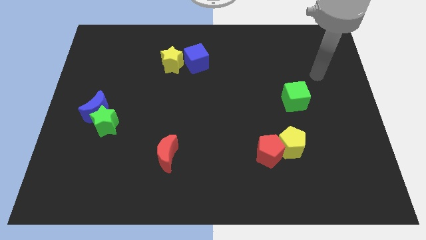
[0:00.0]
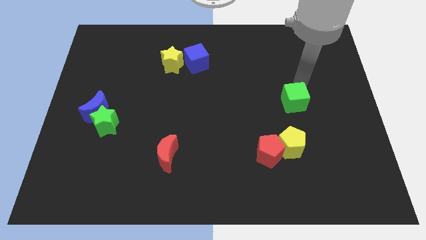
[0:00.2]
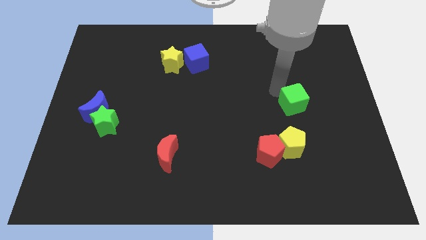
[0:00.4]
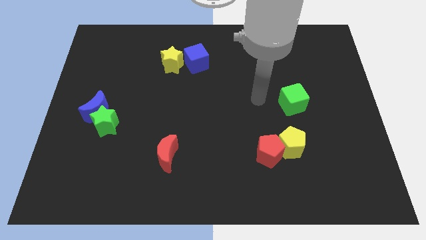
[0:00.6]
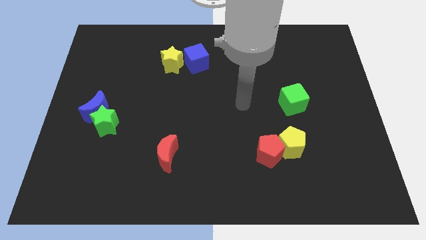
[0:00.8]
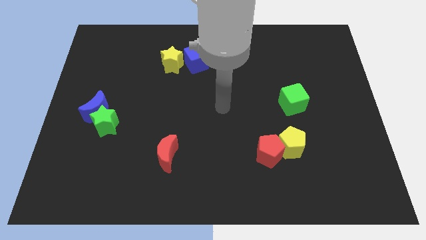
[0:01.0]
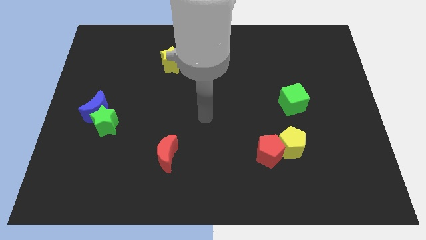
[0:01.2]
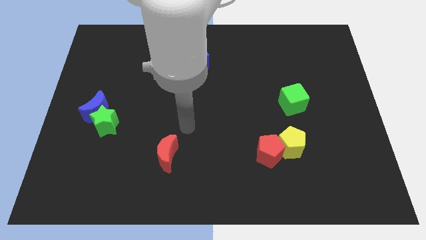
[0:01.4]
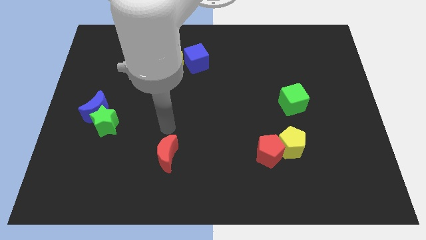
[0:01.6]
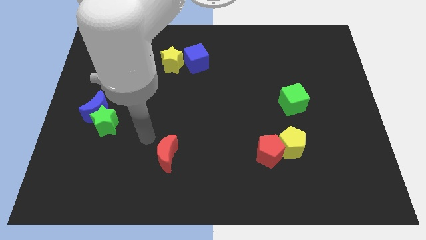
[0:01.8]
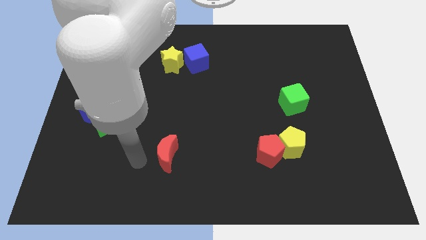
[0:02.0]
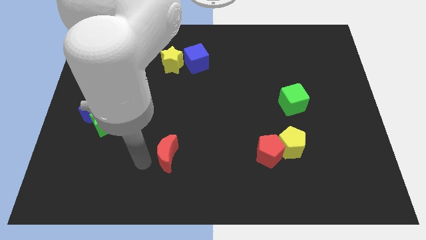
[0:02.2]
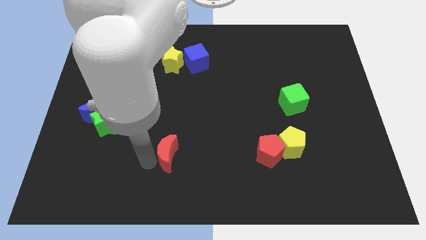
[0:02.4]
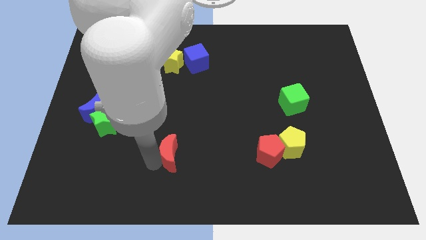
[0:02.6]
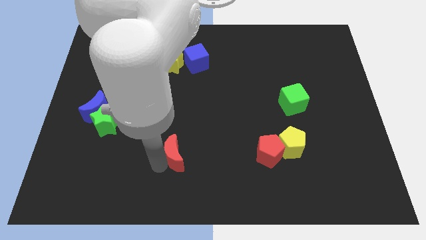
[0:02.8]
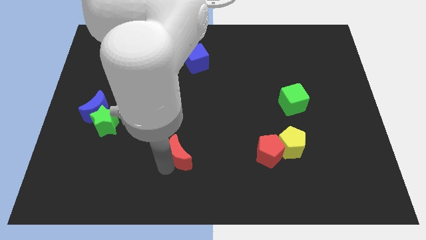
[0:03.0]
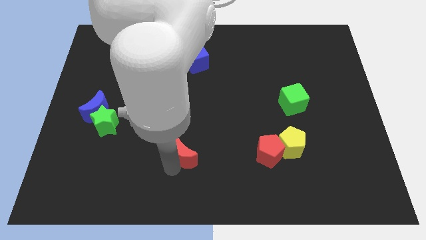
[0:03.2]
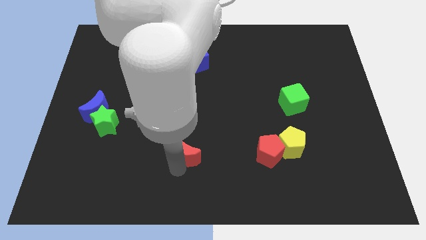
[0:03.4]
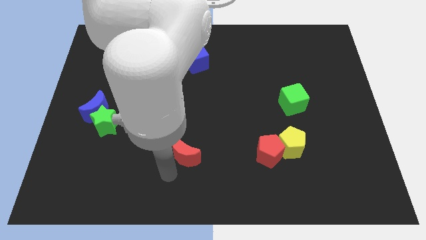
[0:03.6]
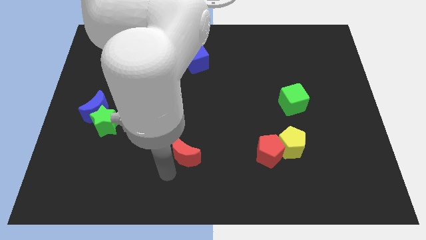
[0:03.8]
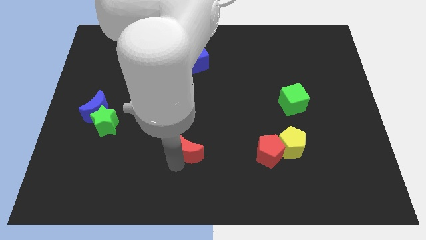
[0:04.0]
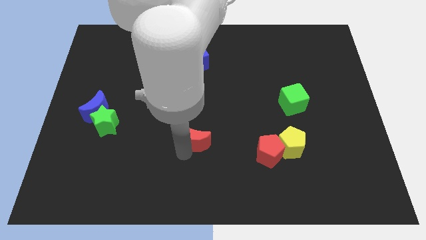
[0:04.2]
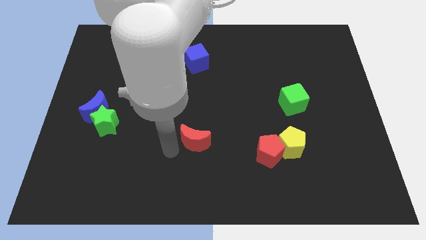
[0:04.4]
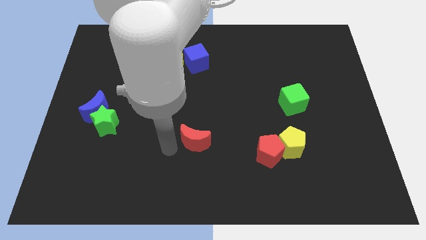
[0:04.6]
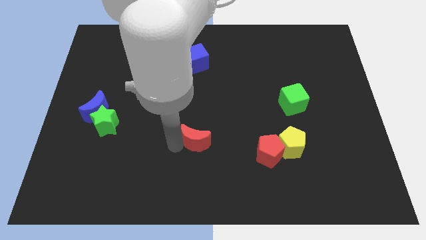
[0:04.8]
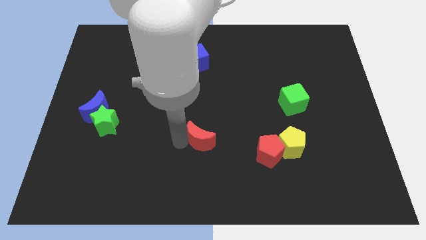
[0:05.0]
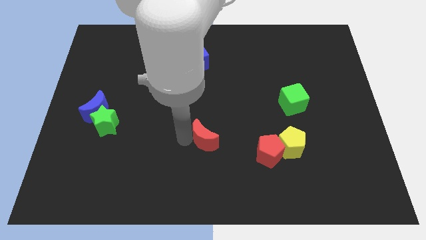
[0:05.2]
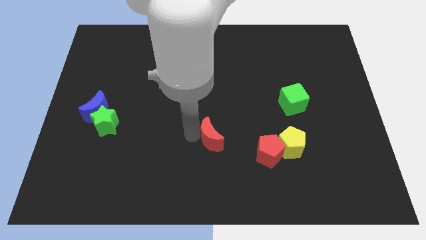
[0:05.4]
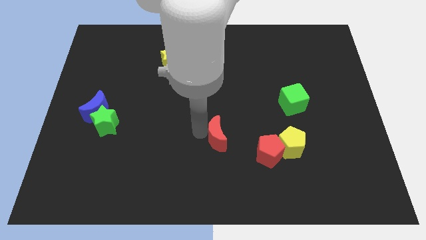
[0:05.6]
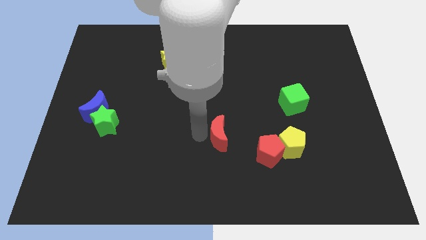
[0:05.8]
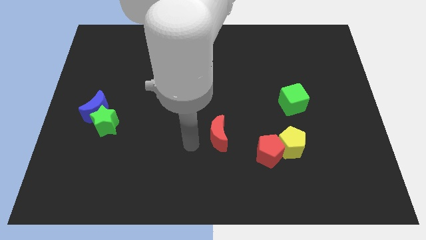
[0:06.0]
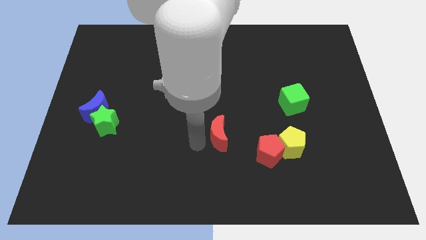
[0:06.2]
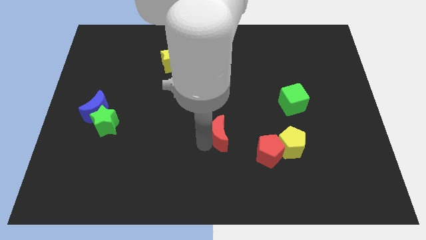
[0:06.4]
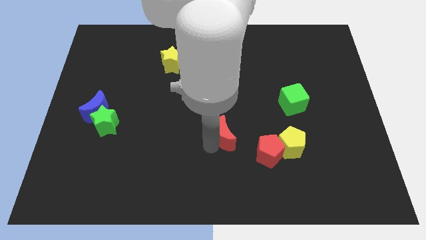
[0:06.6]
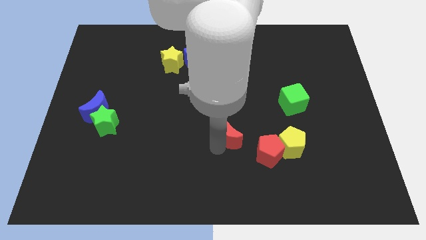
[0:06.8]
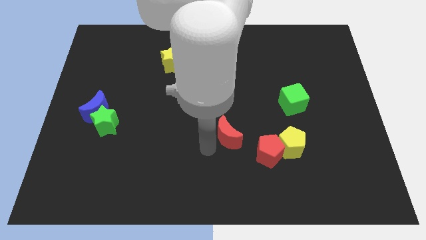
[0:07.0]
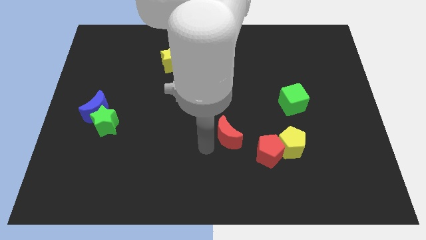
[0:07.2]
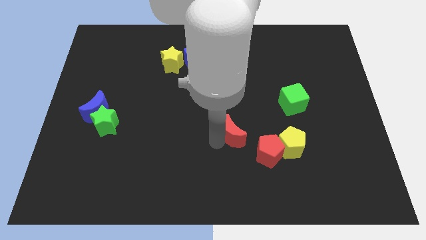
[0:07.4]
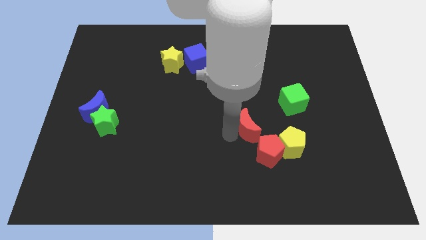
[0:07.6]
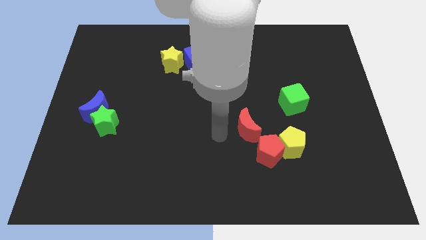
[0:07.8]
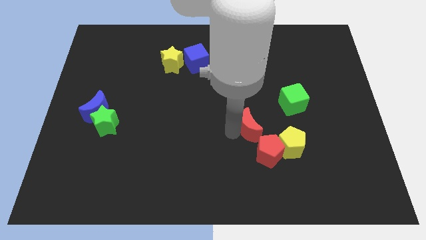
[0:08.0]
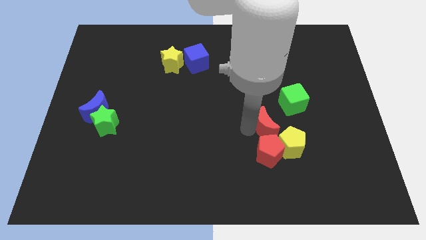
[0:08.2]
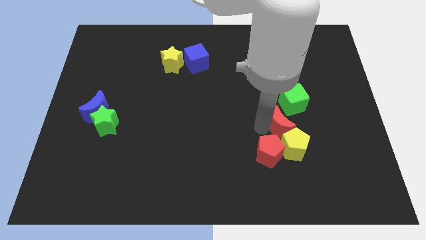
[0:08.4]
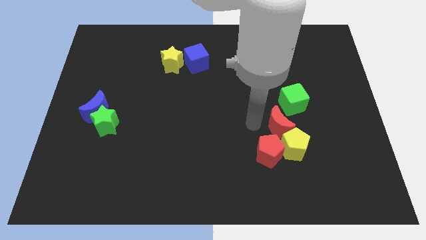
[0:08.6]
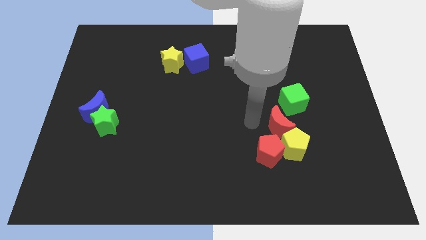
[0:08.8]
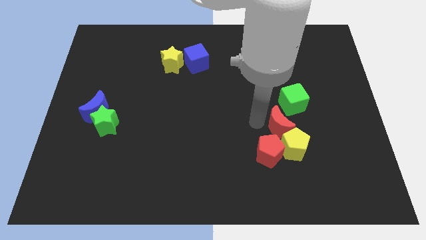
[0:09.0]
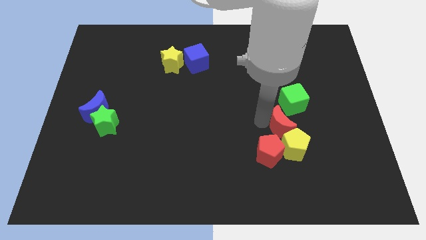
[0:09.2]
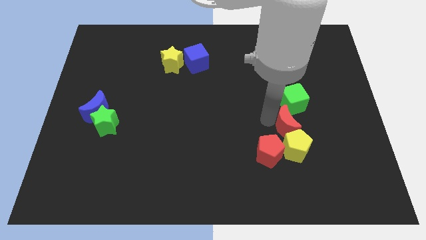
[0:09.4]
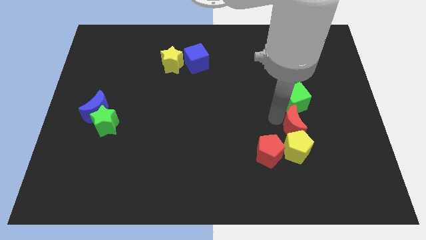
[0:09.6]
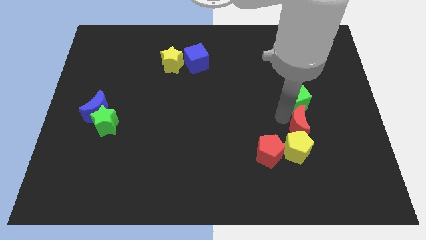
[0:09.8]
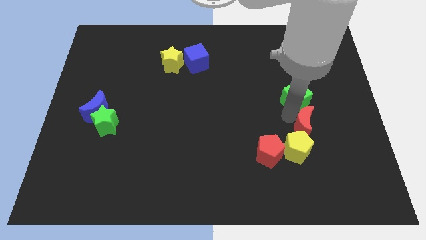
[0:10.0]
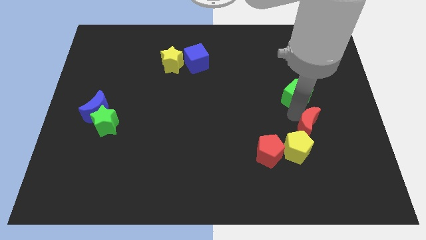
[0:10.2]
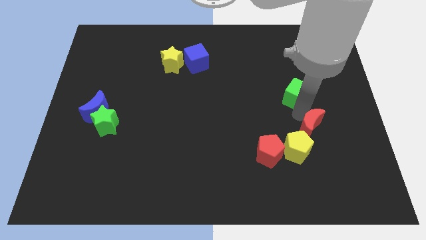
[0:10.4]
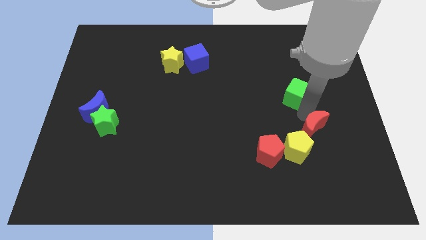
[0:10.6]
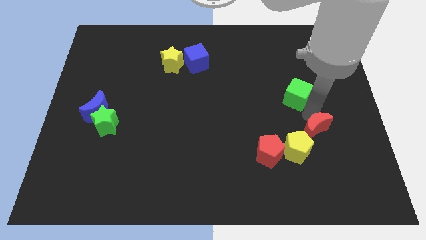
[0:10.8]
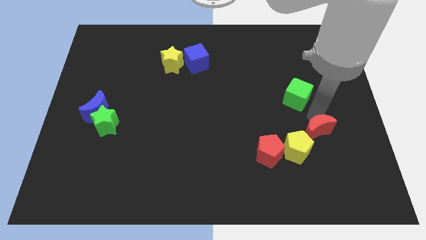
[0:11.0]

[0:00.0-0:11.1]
move the red moon just right of the yellow pentagon

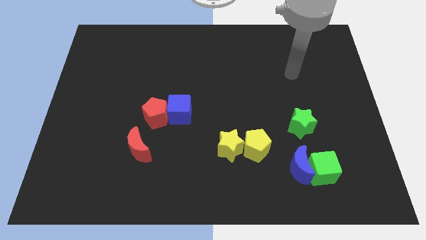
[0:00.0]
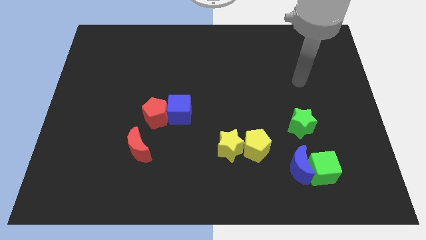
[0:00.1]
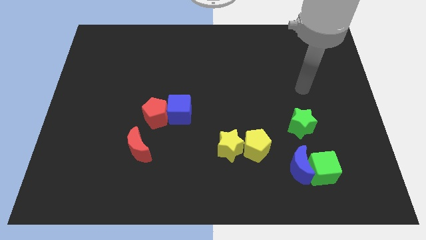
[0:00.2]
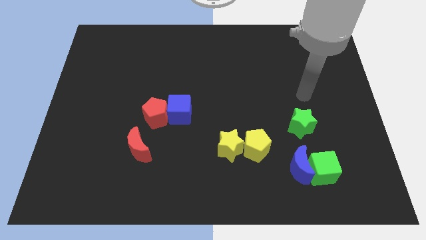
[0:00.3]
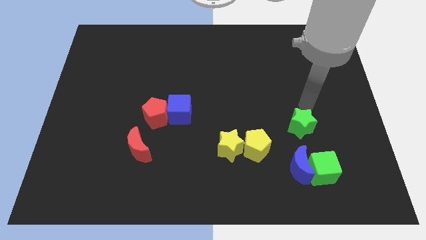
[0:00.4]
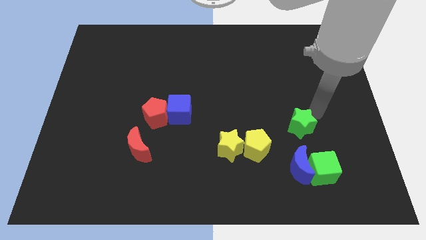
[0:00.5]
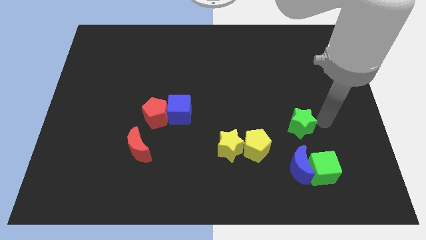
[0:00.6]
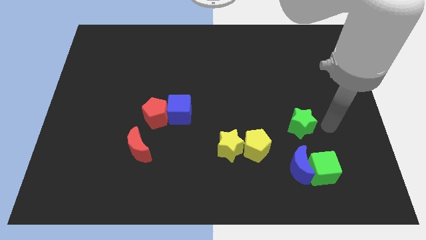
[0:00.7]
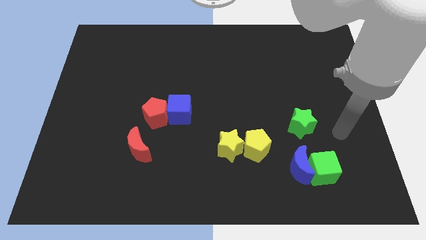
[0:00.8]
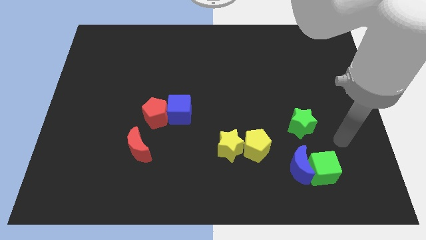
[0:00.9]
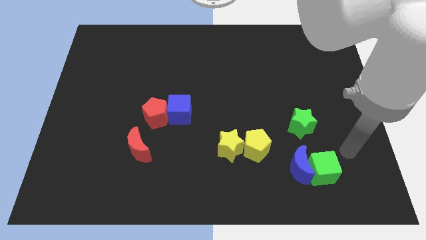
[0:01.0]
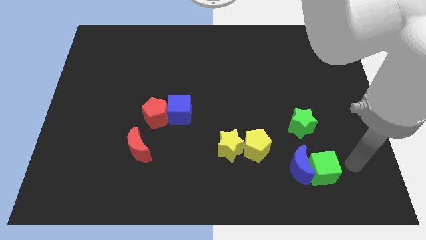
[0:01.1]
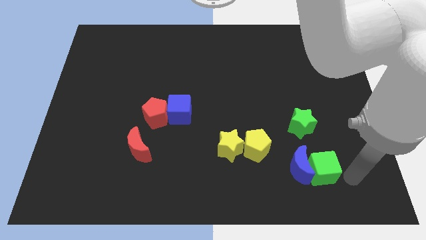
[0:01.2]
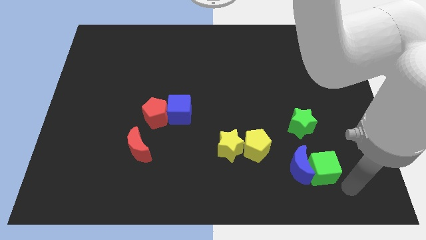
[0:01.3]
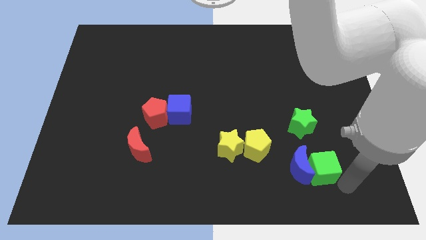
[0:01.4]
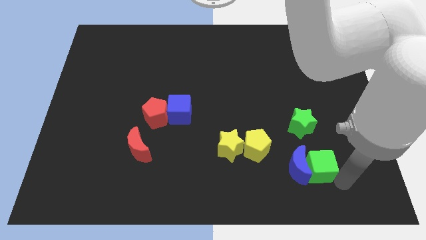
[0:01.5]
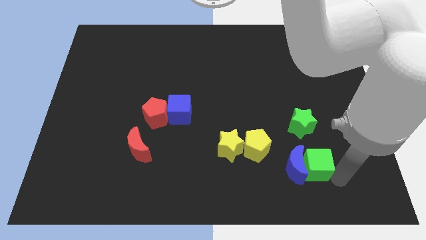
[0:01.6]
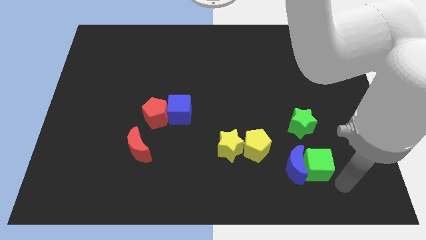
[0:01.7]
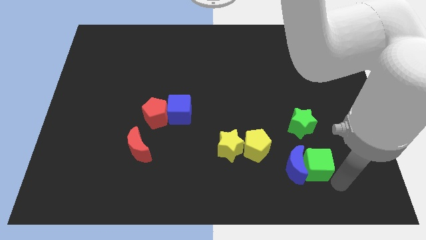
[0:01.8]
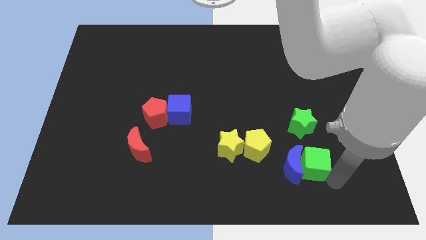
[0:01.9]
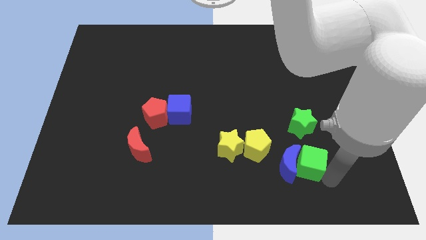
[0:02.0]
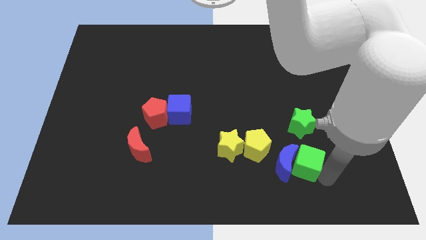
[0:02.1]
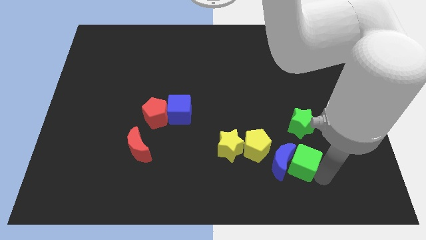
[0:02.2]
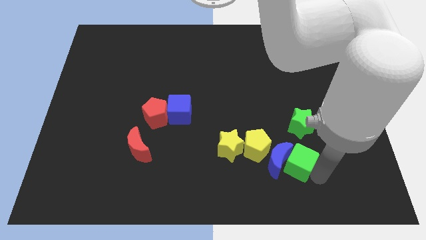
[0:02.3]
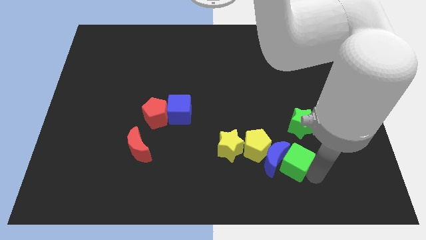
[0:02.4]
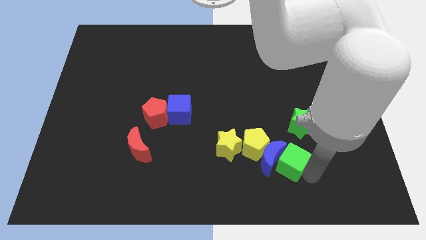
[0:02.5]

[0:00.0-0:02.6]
put the green cube diagonally down and to the left of the green star
